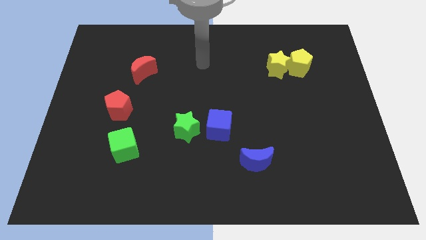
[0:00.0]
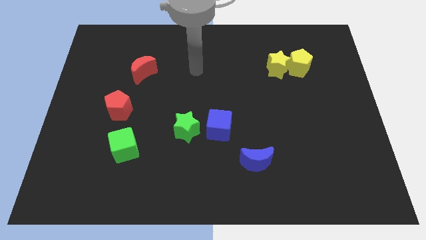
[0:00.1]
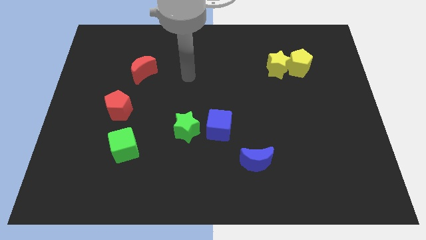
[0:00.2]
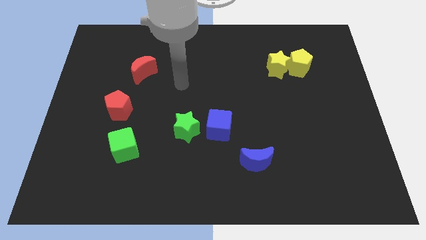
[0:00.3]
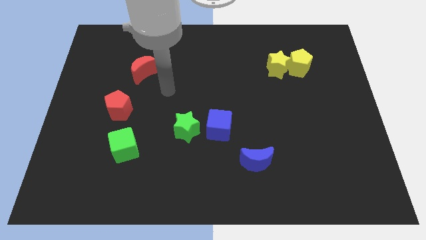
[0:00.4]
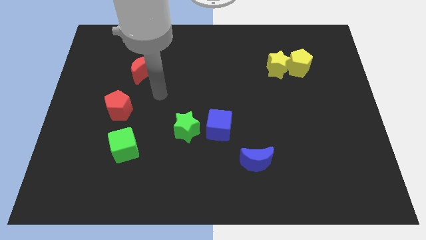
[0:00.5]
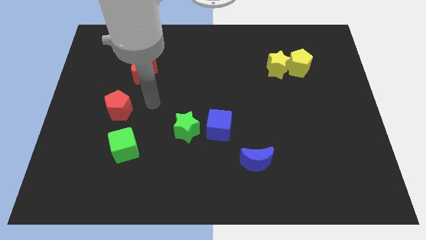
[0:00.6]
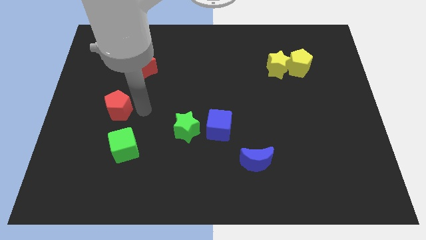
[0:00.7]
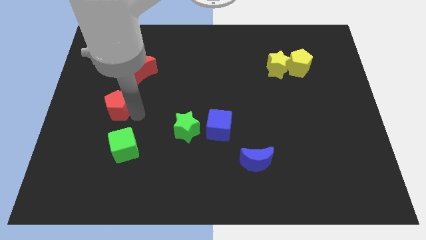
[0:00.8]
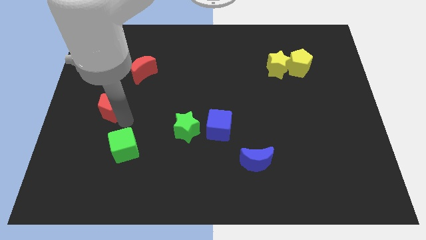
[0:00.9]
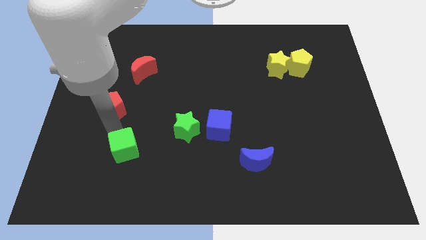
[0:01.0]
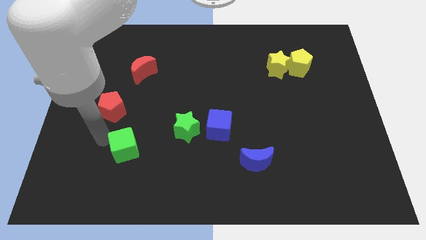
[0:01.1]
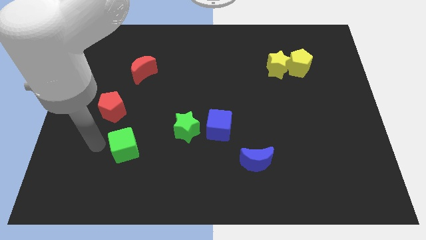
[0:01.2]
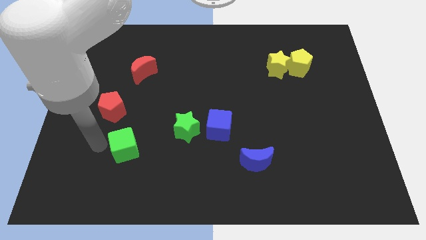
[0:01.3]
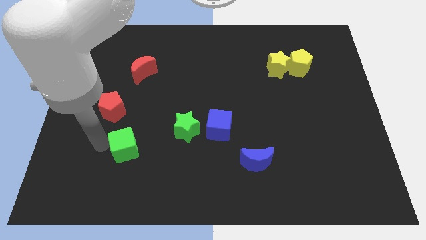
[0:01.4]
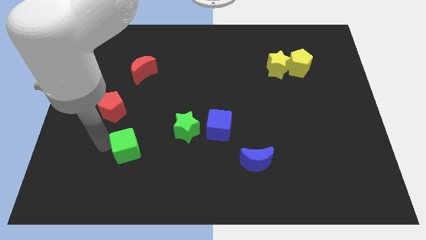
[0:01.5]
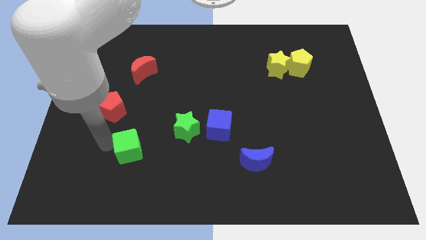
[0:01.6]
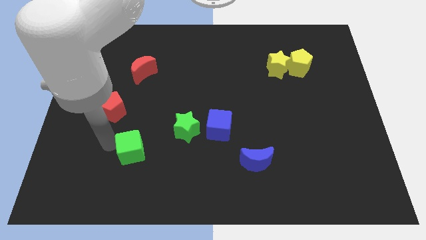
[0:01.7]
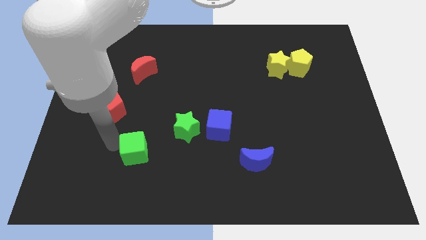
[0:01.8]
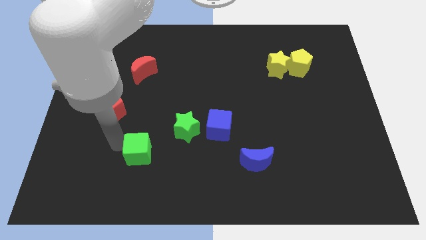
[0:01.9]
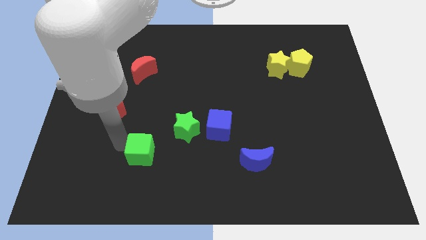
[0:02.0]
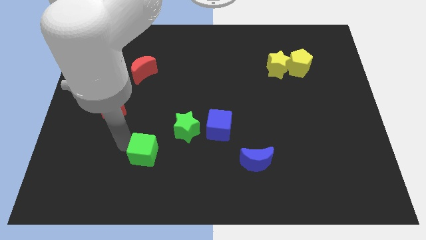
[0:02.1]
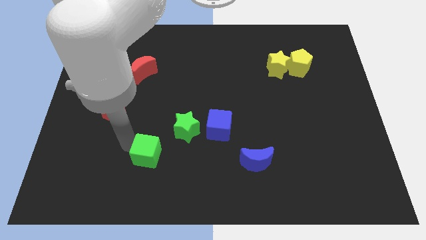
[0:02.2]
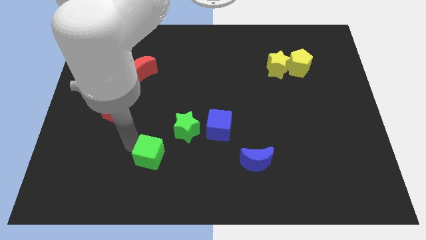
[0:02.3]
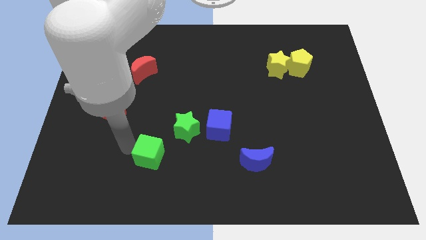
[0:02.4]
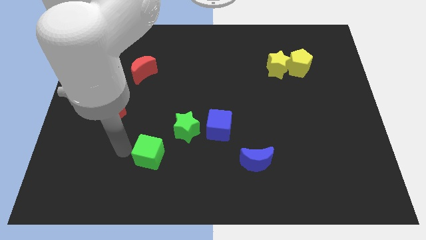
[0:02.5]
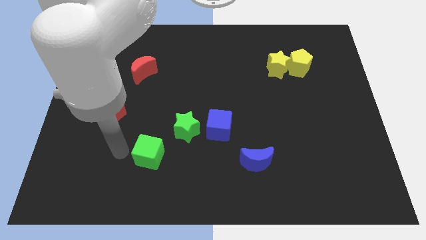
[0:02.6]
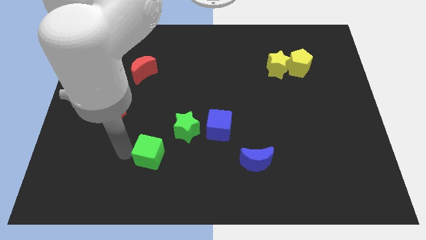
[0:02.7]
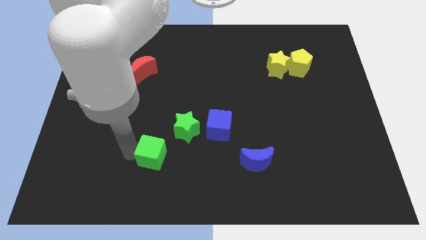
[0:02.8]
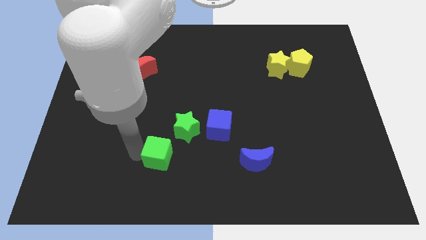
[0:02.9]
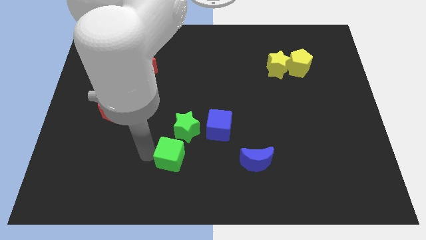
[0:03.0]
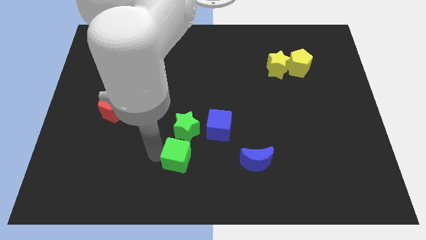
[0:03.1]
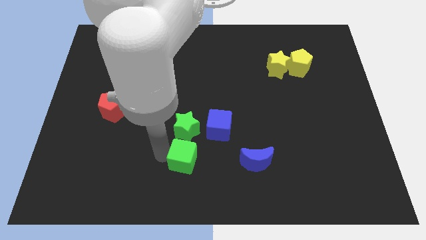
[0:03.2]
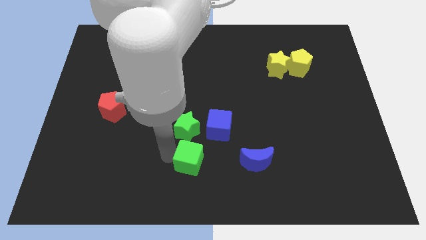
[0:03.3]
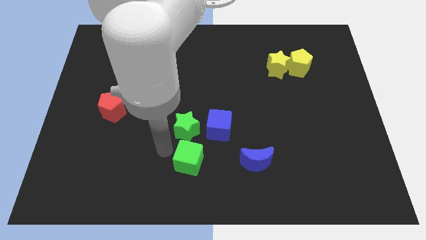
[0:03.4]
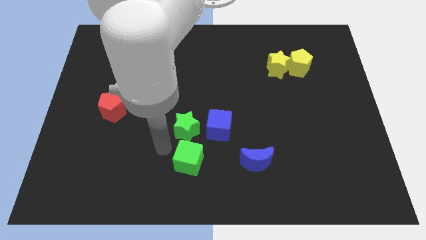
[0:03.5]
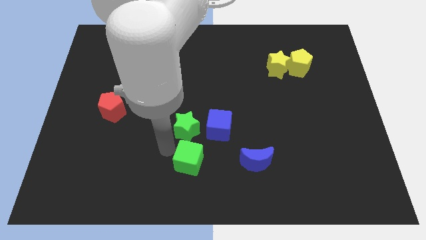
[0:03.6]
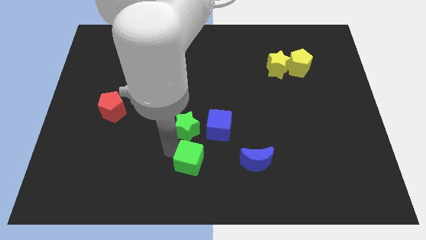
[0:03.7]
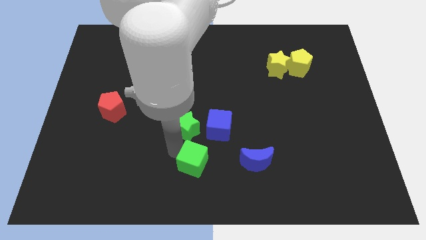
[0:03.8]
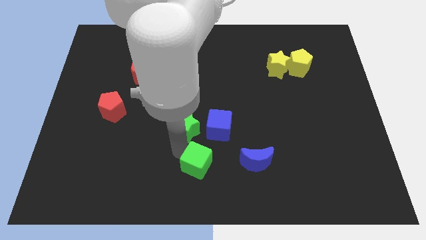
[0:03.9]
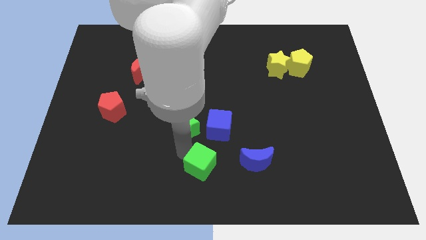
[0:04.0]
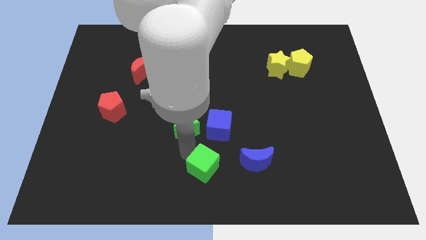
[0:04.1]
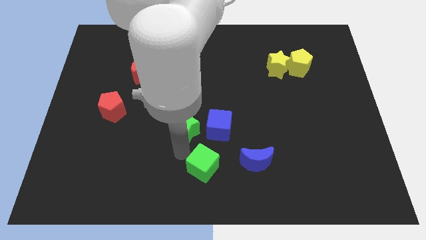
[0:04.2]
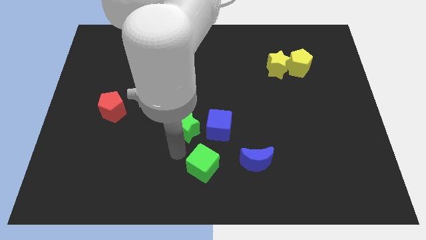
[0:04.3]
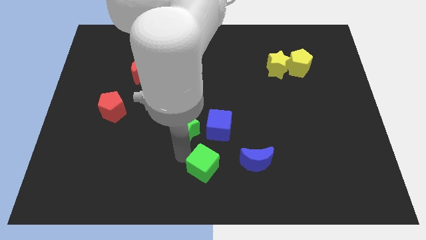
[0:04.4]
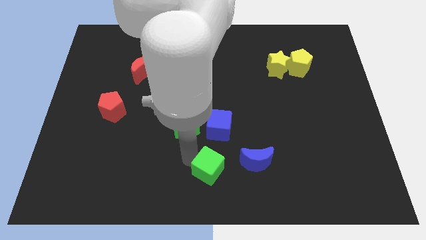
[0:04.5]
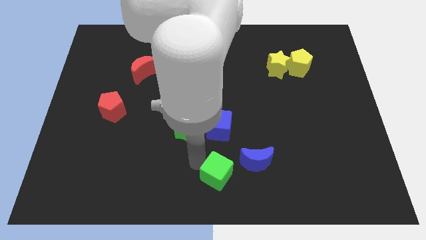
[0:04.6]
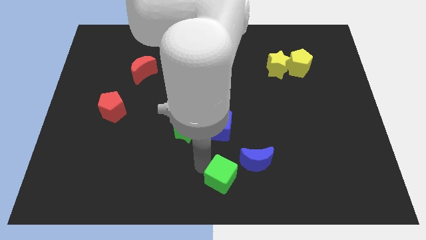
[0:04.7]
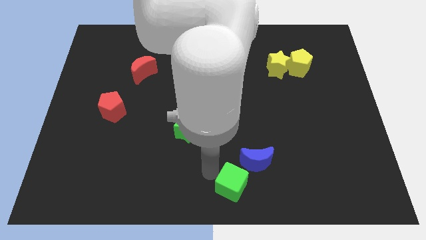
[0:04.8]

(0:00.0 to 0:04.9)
move the green cube right

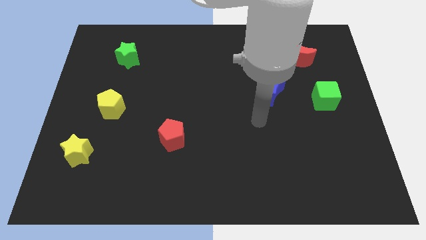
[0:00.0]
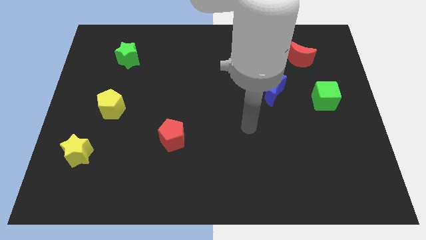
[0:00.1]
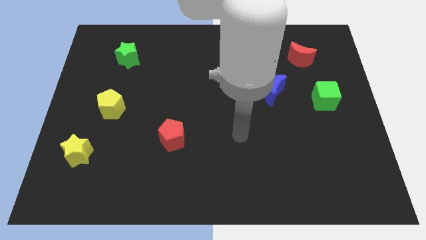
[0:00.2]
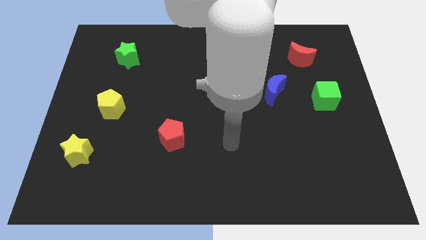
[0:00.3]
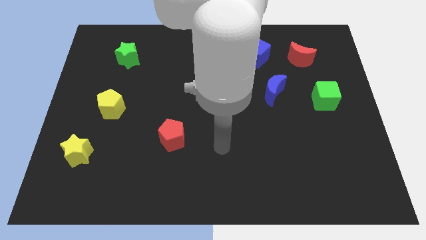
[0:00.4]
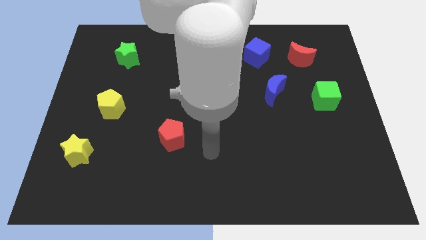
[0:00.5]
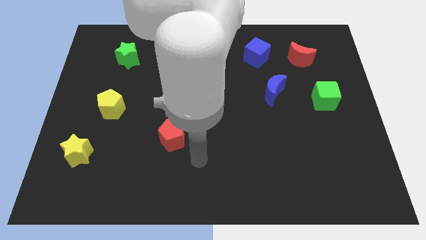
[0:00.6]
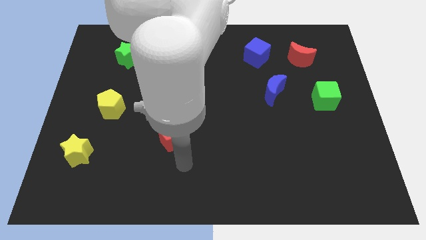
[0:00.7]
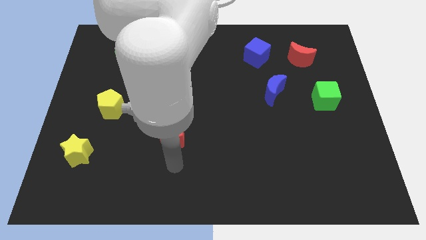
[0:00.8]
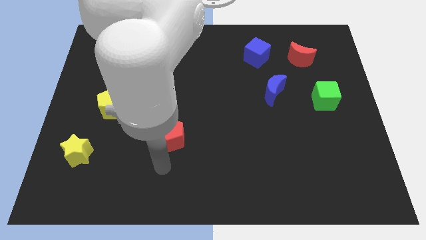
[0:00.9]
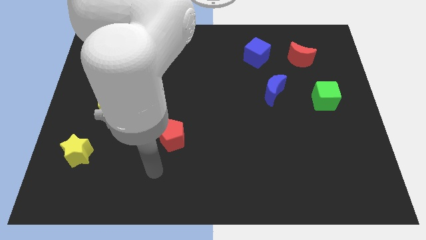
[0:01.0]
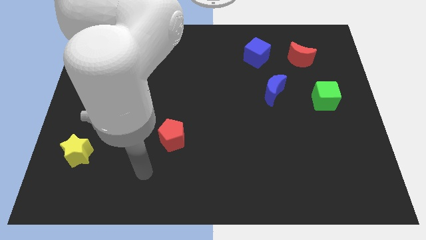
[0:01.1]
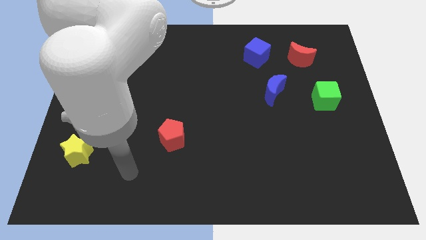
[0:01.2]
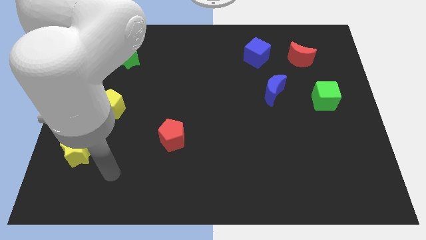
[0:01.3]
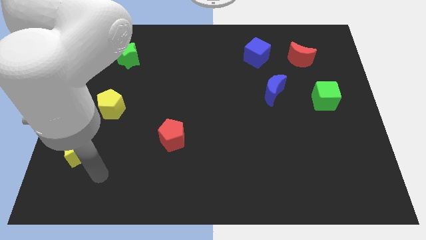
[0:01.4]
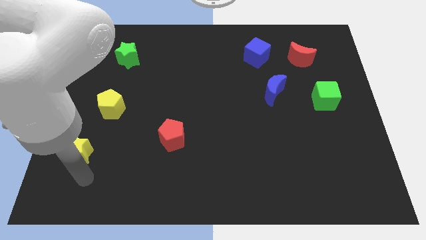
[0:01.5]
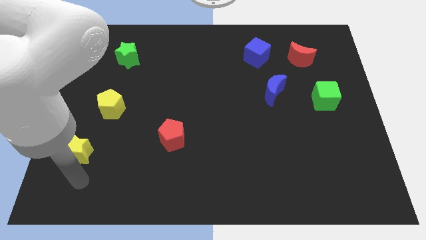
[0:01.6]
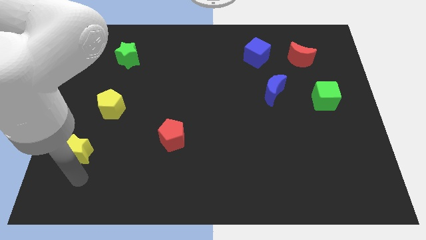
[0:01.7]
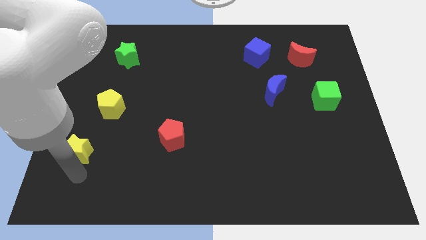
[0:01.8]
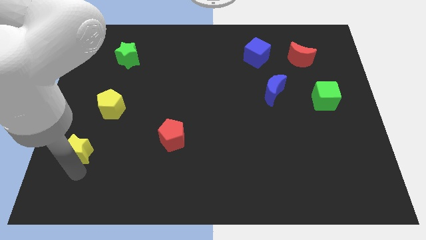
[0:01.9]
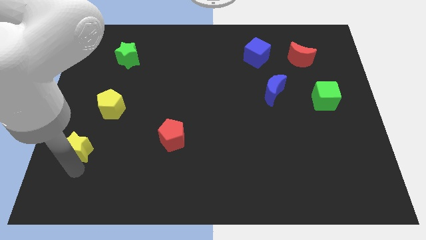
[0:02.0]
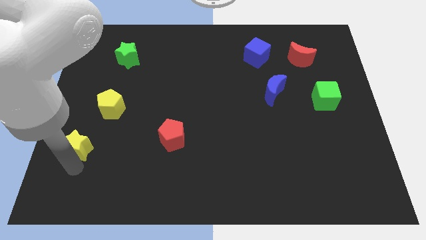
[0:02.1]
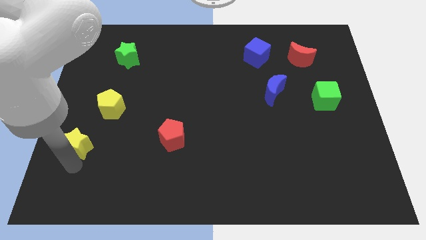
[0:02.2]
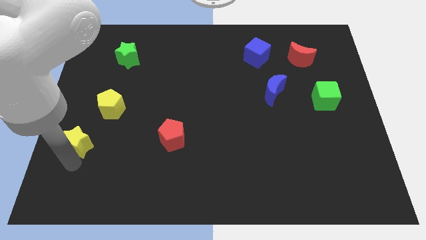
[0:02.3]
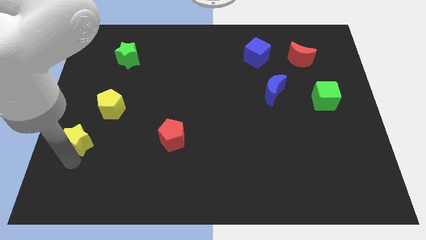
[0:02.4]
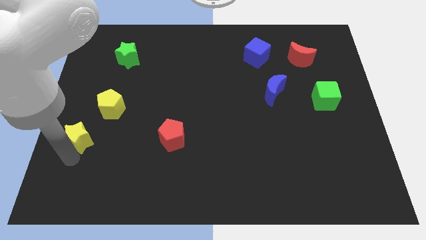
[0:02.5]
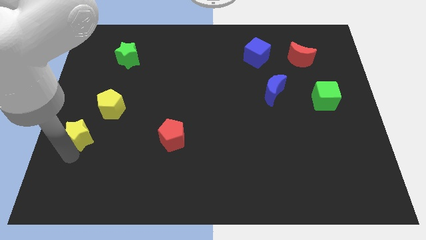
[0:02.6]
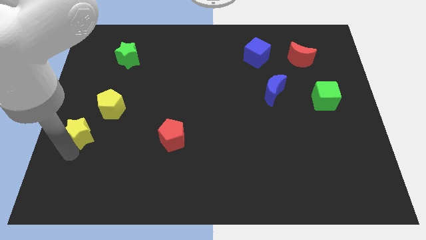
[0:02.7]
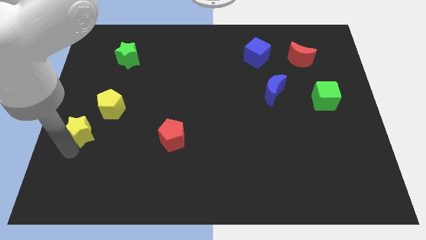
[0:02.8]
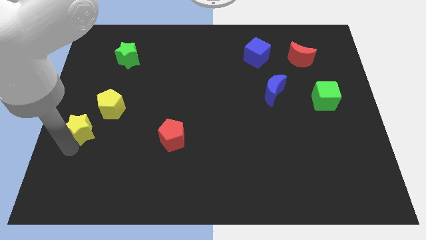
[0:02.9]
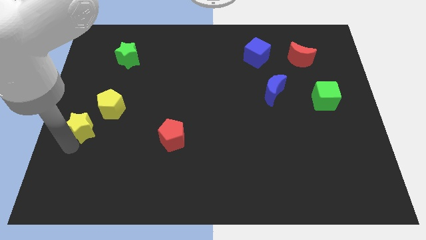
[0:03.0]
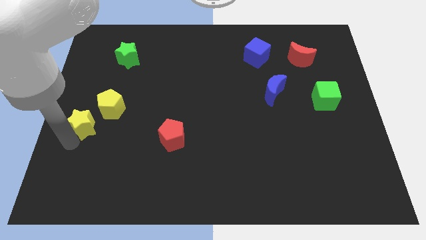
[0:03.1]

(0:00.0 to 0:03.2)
slide the yellow star up a little
